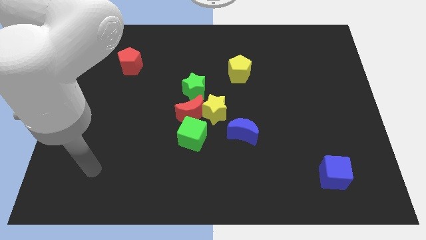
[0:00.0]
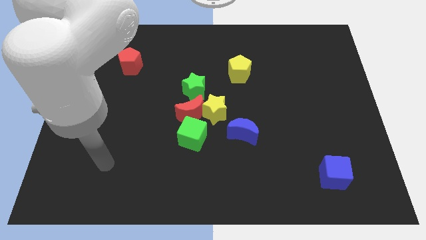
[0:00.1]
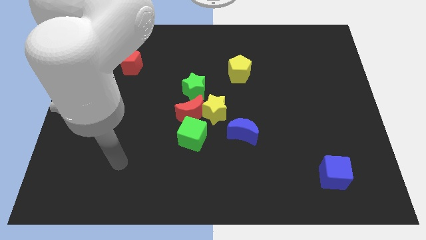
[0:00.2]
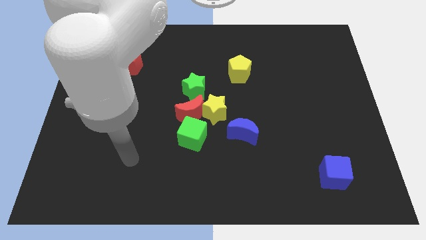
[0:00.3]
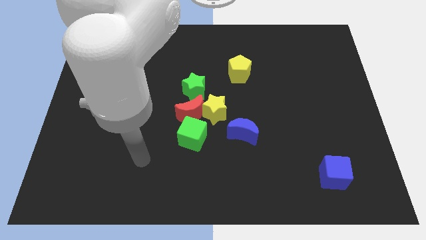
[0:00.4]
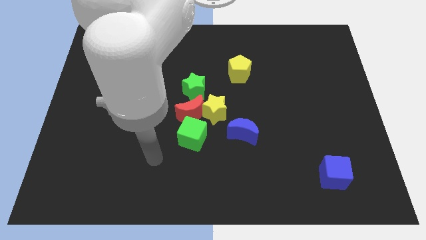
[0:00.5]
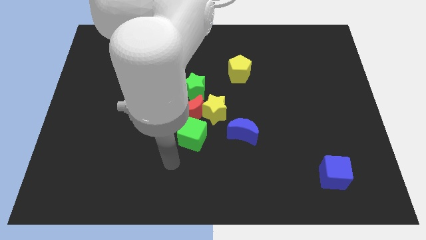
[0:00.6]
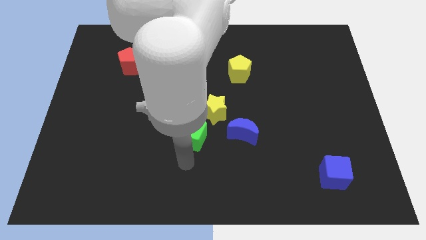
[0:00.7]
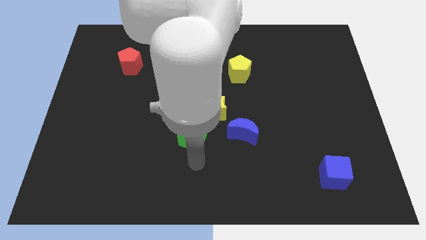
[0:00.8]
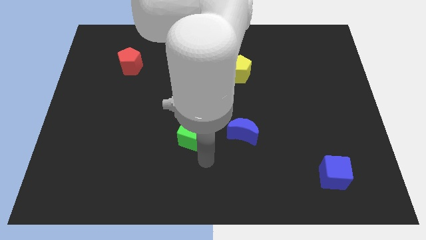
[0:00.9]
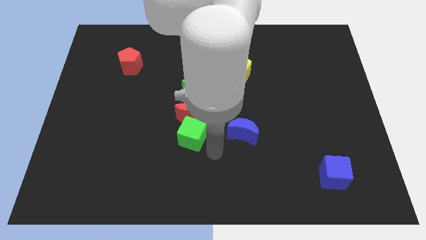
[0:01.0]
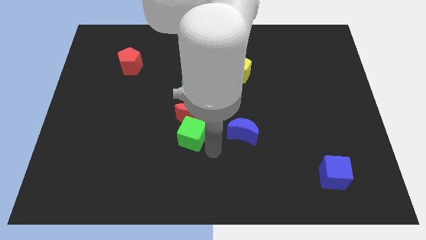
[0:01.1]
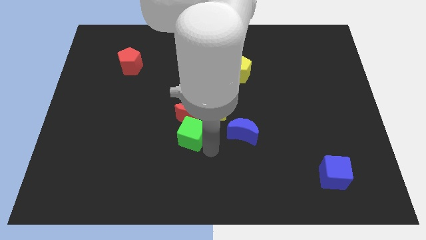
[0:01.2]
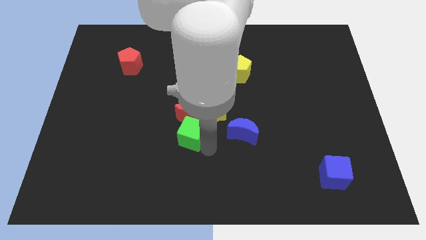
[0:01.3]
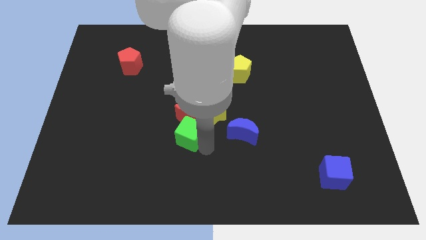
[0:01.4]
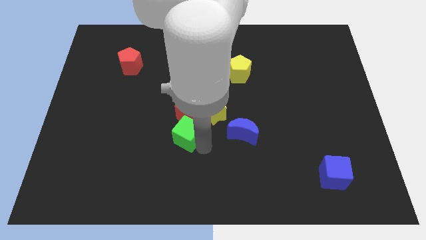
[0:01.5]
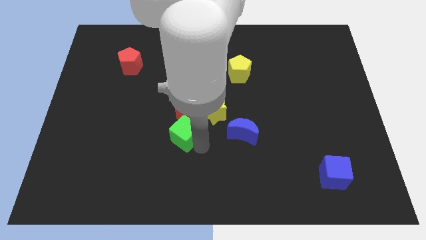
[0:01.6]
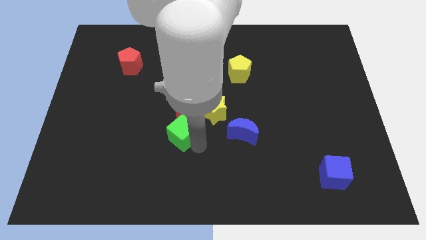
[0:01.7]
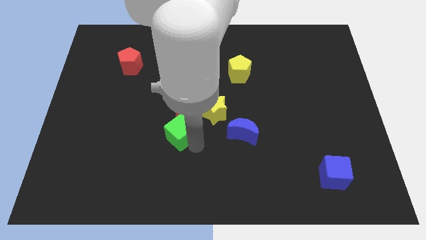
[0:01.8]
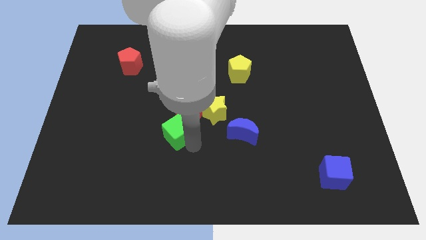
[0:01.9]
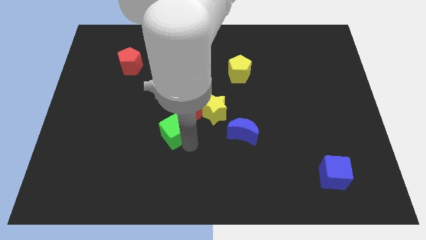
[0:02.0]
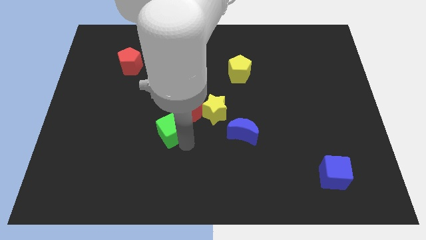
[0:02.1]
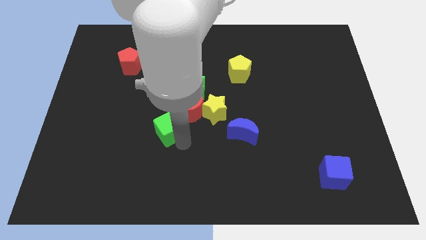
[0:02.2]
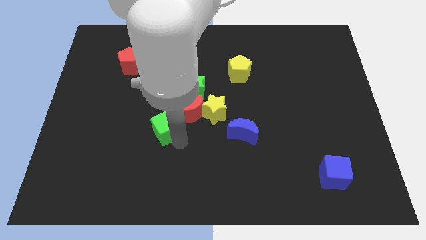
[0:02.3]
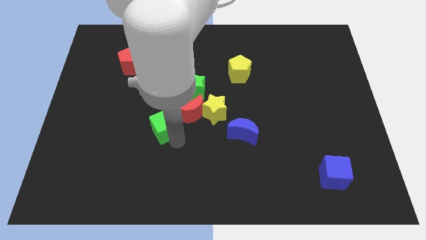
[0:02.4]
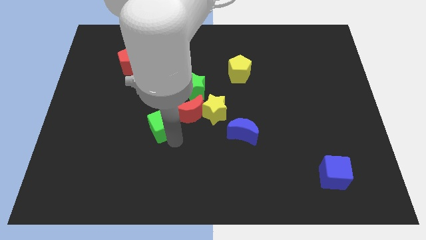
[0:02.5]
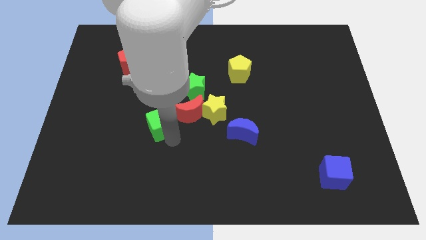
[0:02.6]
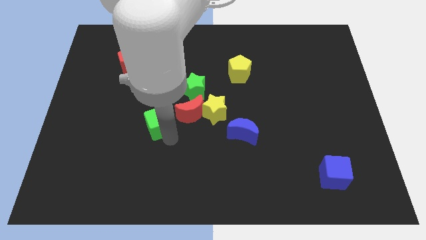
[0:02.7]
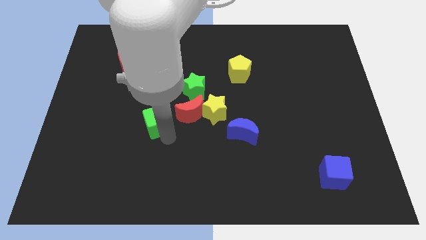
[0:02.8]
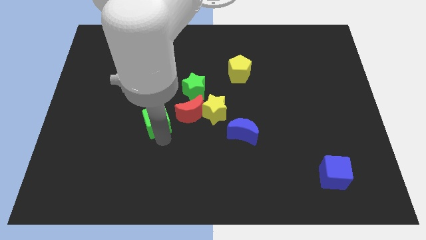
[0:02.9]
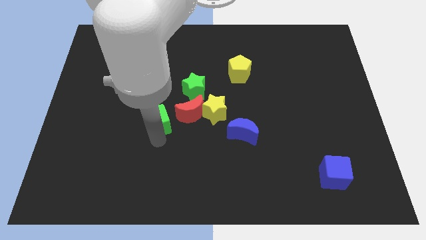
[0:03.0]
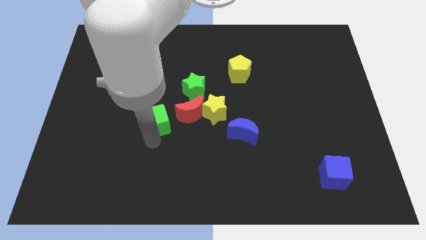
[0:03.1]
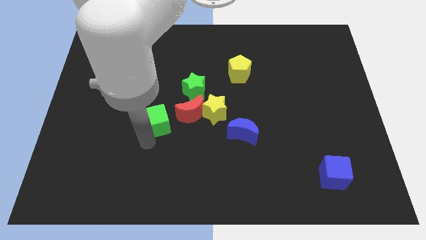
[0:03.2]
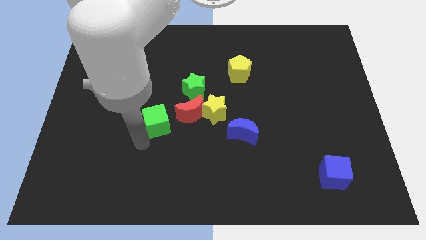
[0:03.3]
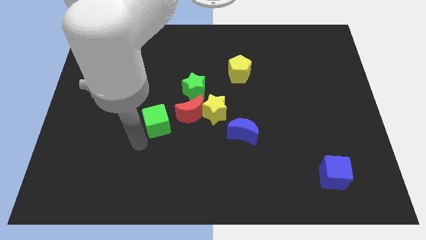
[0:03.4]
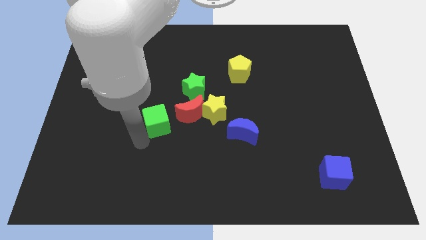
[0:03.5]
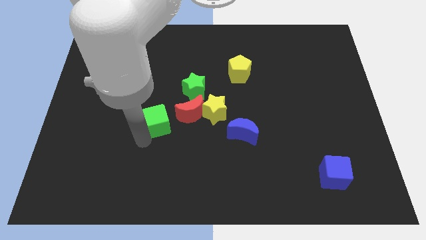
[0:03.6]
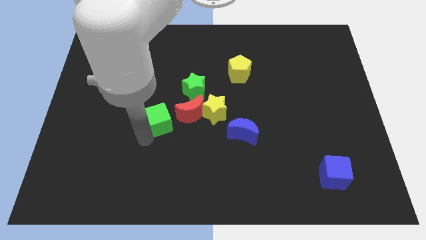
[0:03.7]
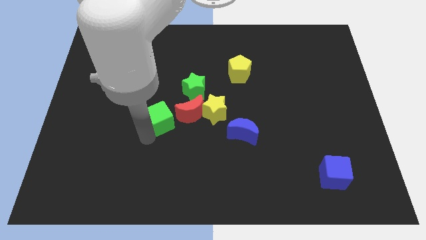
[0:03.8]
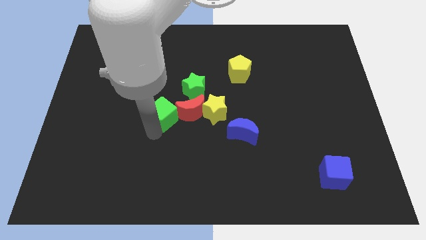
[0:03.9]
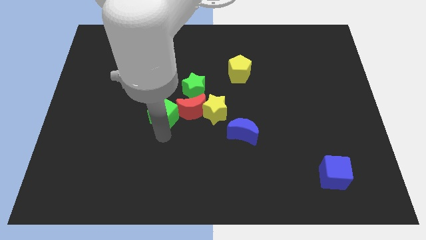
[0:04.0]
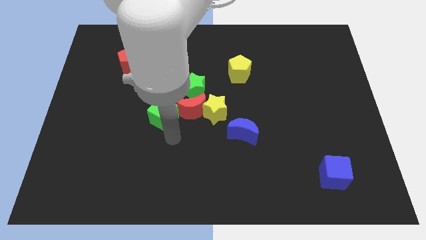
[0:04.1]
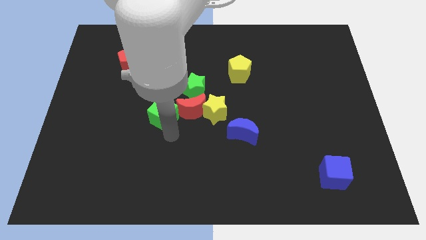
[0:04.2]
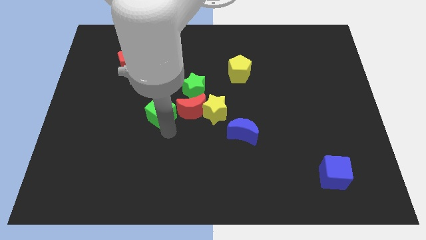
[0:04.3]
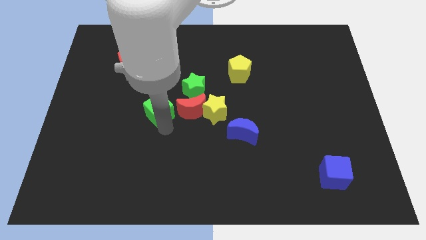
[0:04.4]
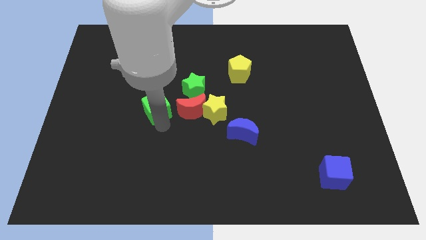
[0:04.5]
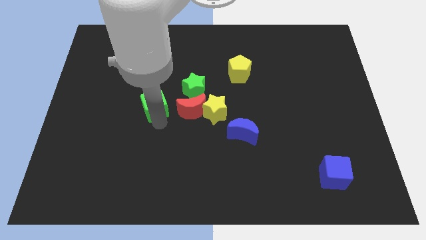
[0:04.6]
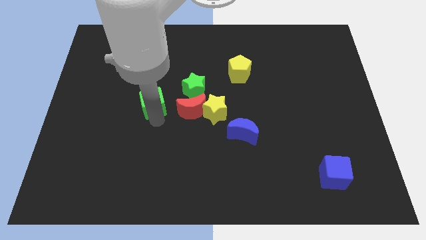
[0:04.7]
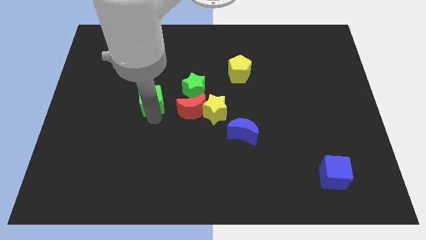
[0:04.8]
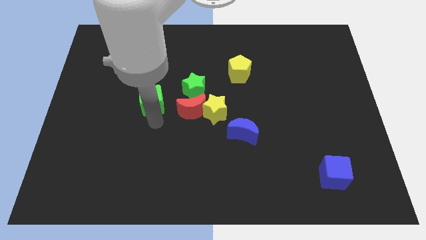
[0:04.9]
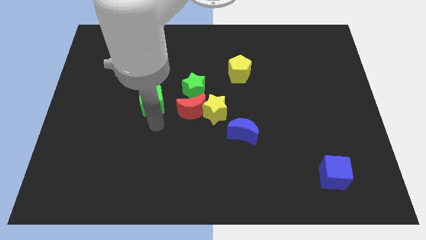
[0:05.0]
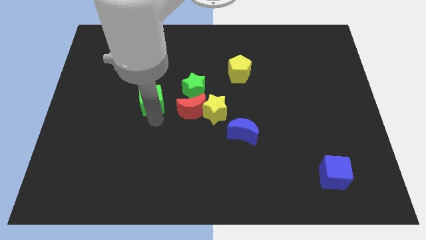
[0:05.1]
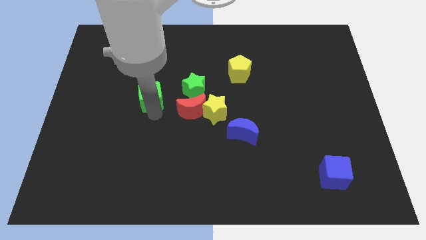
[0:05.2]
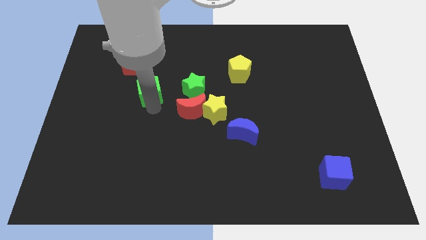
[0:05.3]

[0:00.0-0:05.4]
move the green cube to the bottom right side of the red pentagon

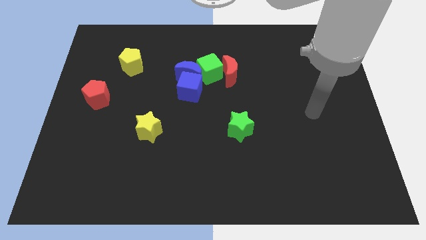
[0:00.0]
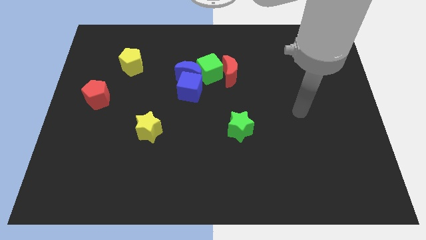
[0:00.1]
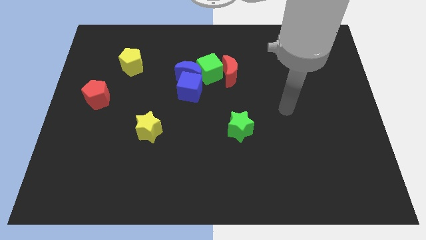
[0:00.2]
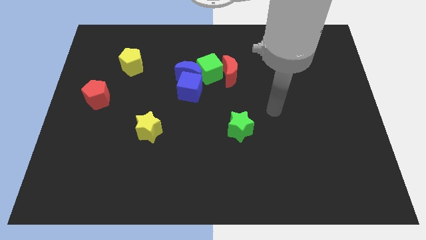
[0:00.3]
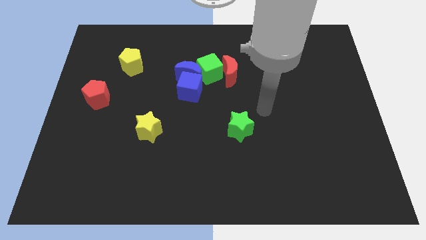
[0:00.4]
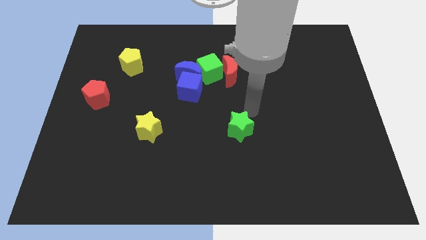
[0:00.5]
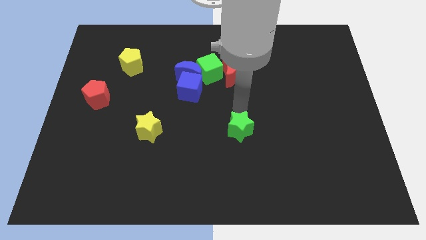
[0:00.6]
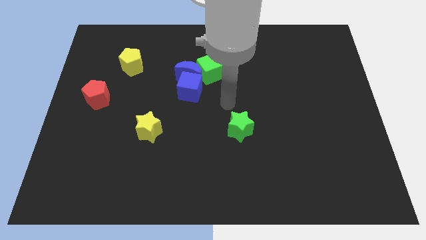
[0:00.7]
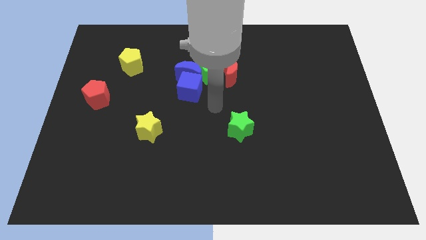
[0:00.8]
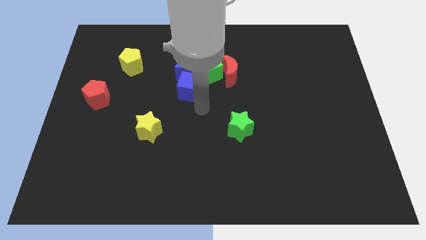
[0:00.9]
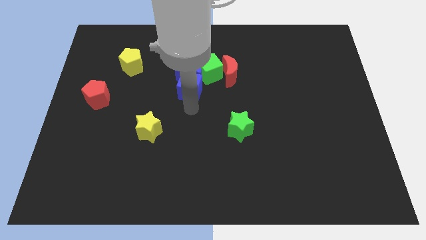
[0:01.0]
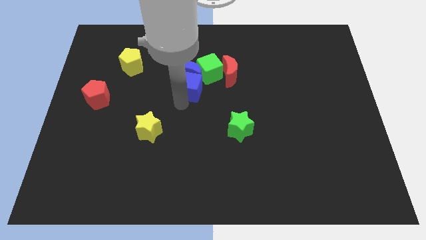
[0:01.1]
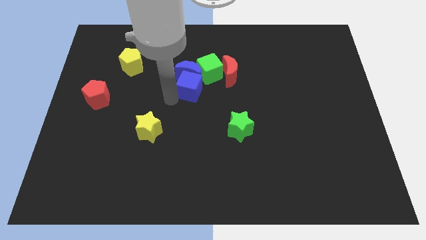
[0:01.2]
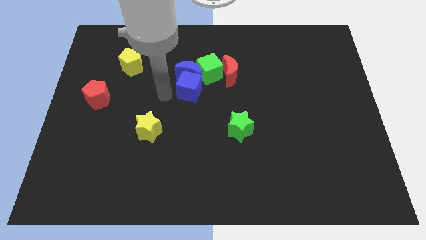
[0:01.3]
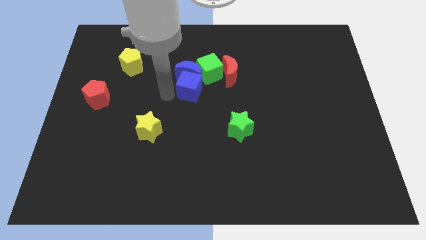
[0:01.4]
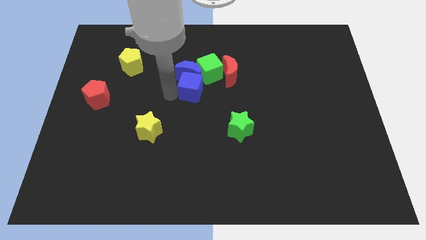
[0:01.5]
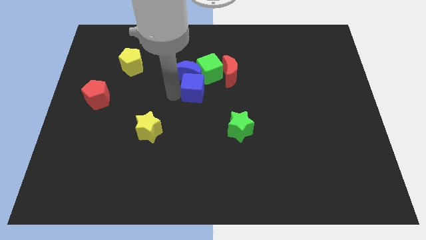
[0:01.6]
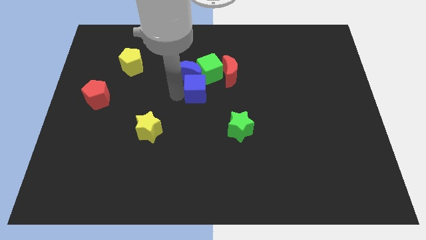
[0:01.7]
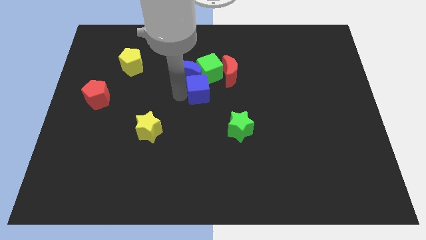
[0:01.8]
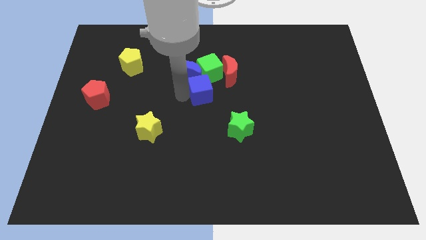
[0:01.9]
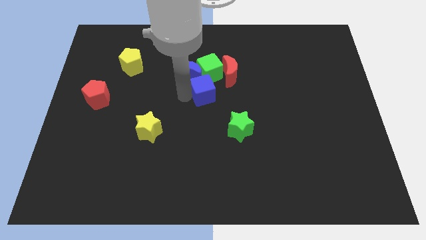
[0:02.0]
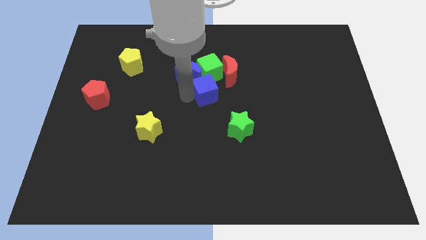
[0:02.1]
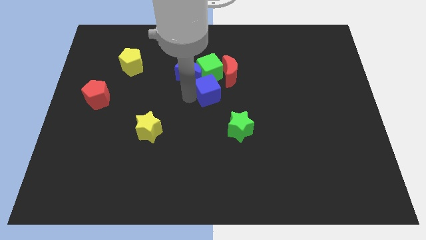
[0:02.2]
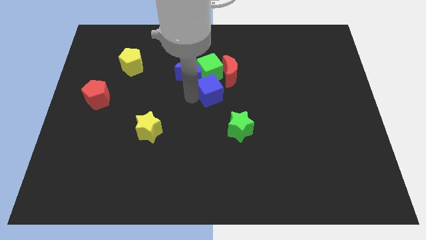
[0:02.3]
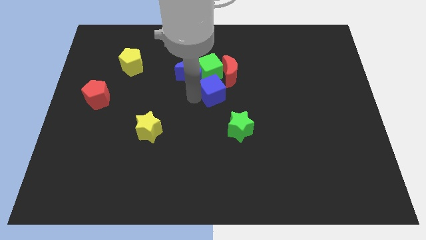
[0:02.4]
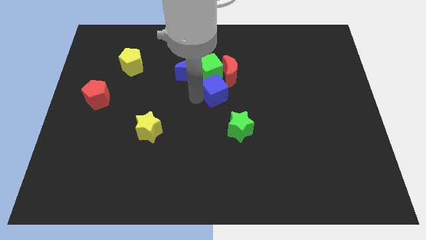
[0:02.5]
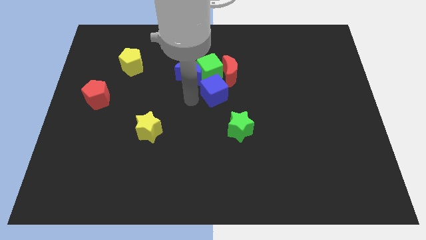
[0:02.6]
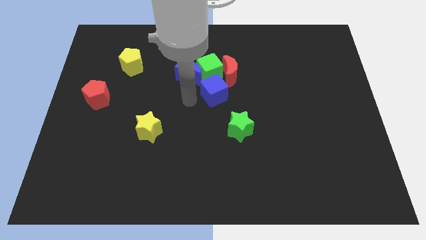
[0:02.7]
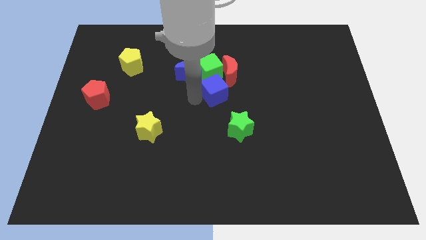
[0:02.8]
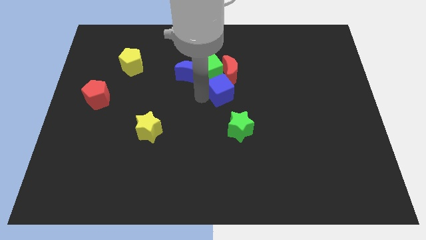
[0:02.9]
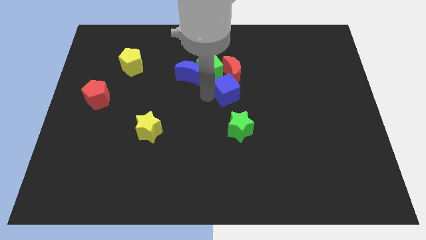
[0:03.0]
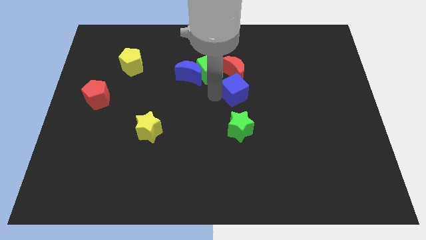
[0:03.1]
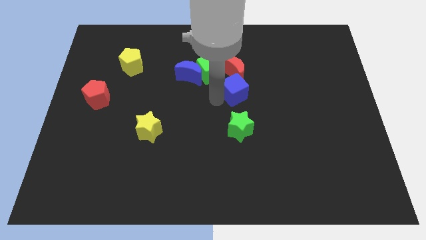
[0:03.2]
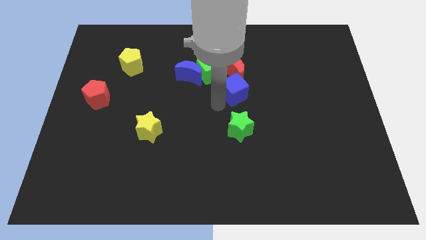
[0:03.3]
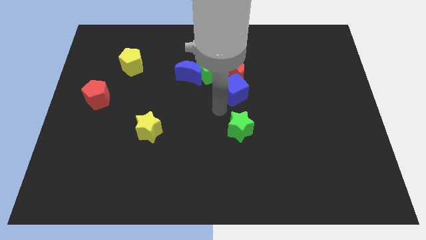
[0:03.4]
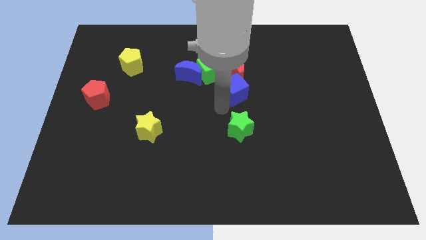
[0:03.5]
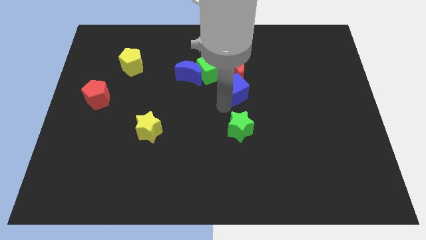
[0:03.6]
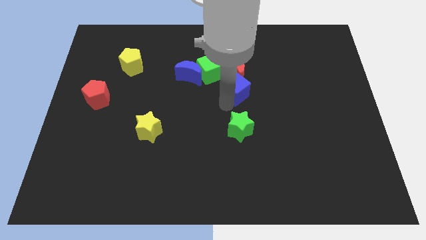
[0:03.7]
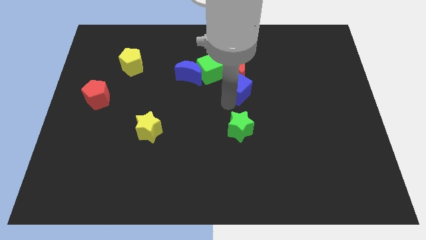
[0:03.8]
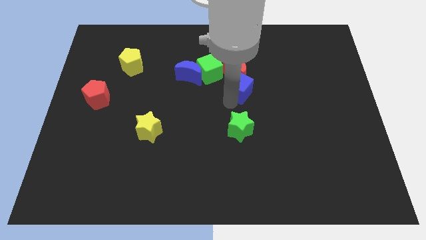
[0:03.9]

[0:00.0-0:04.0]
move the blue cube right of the blue moon
